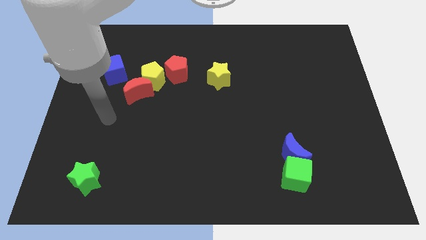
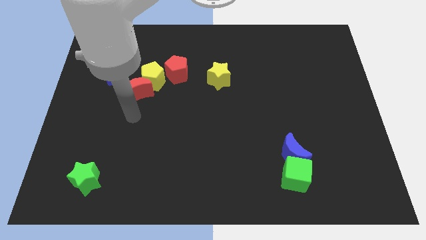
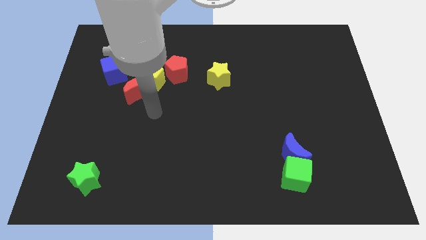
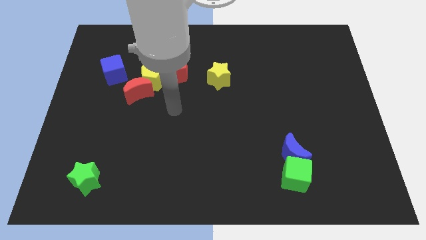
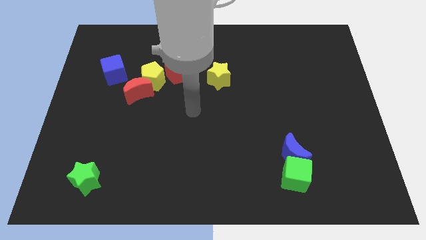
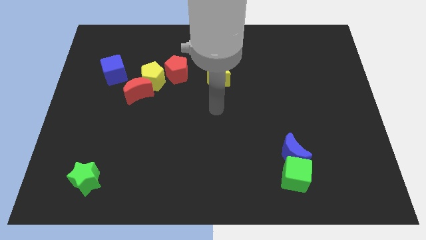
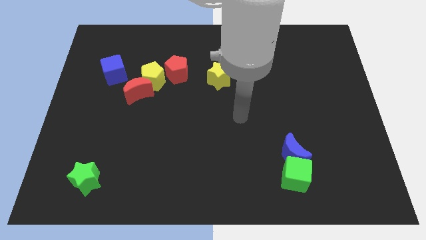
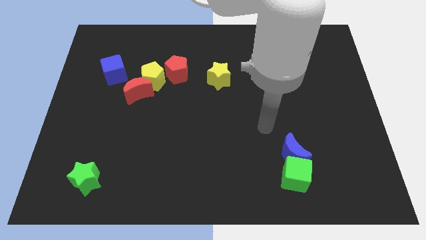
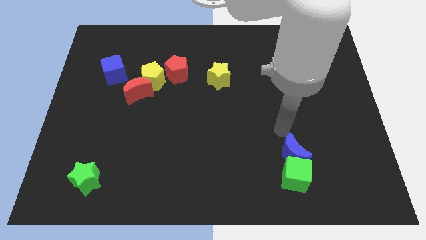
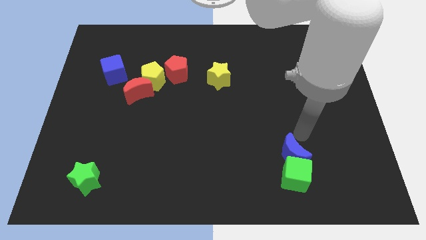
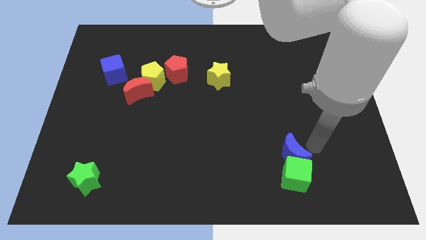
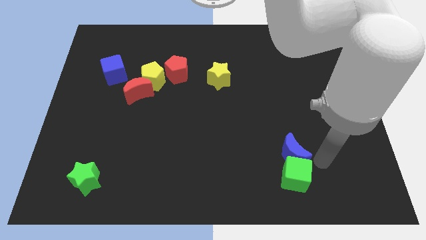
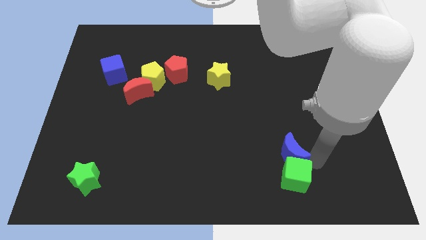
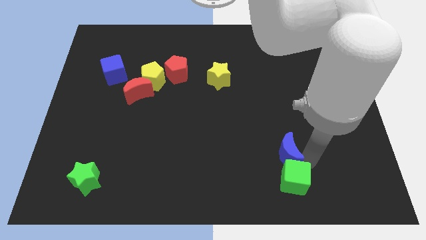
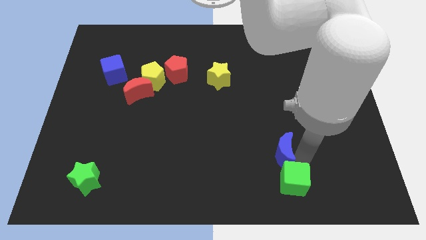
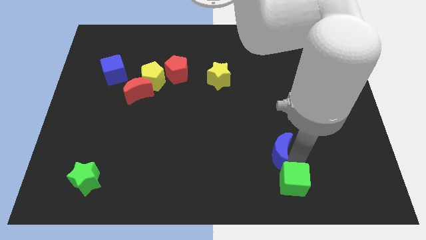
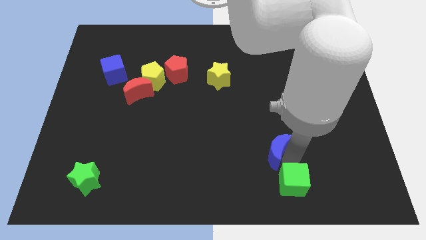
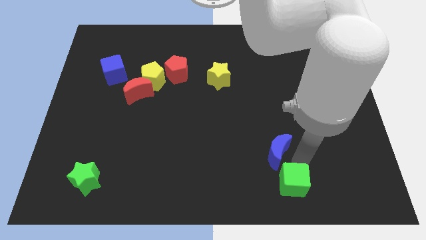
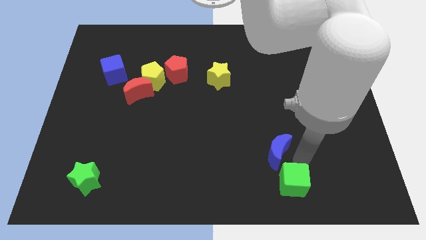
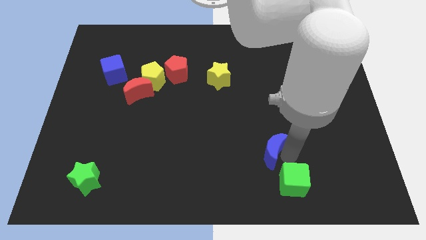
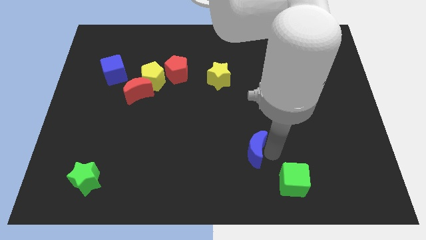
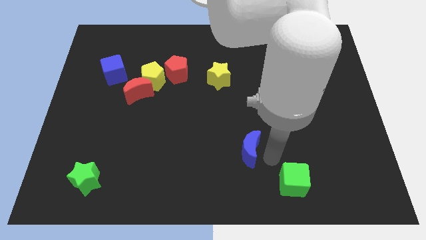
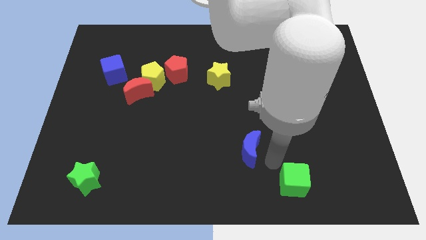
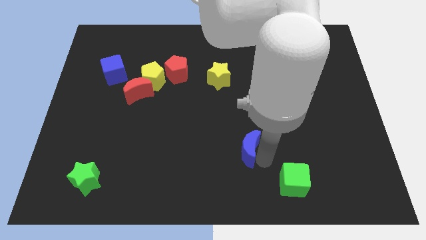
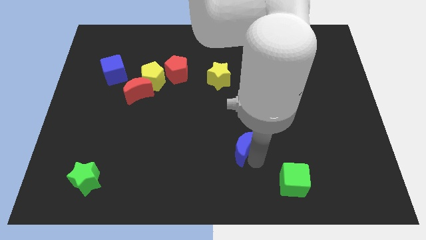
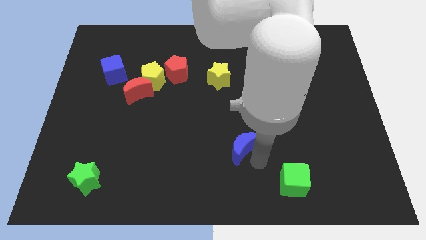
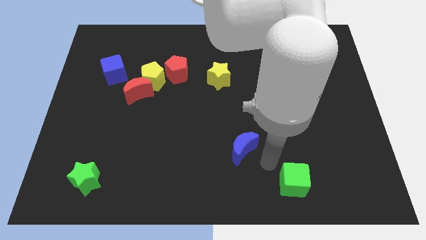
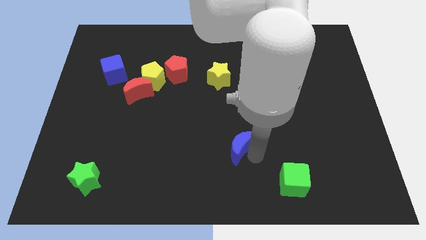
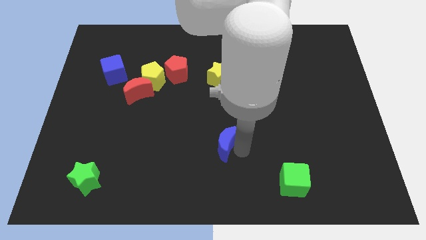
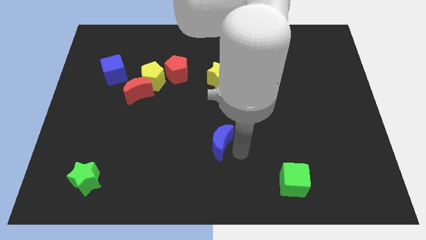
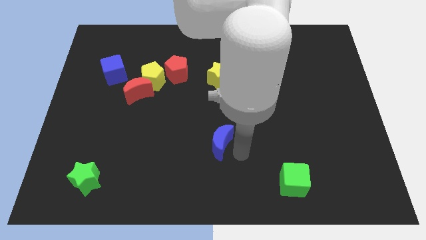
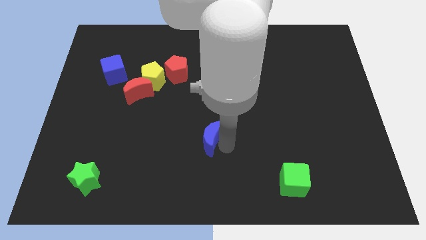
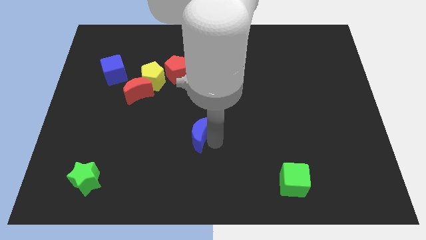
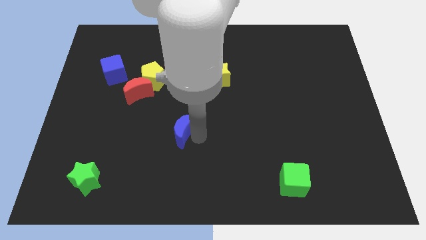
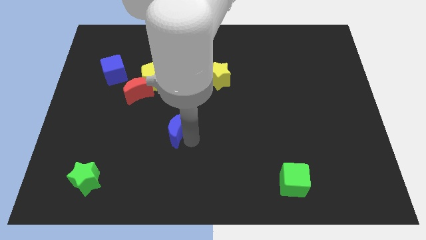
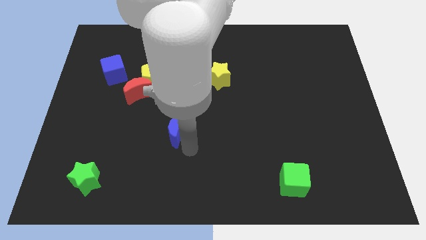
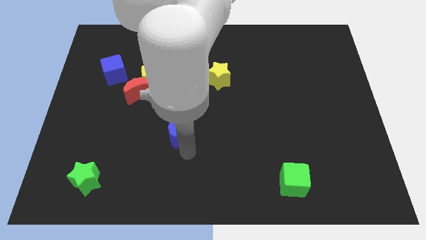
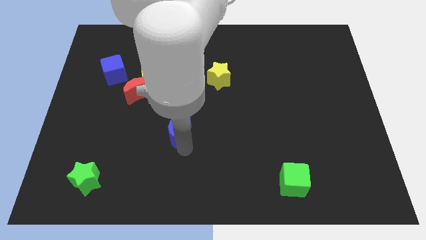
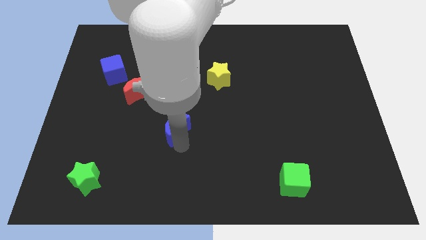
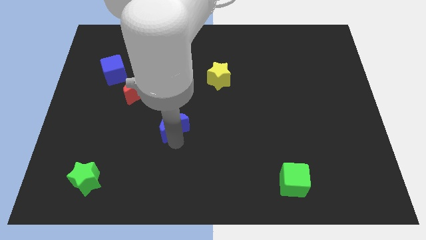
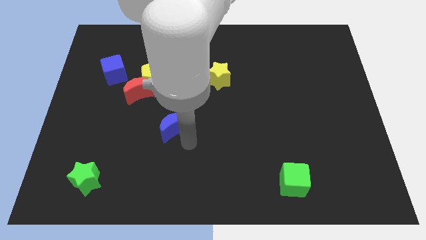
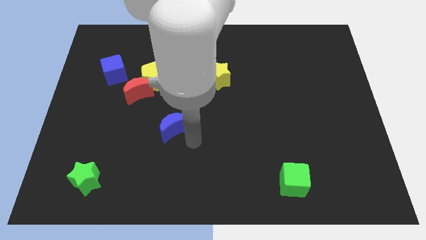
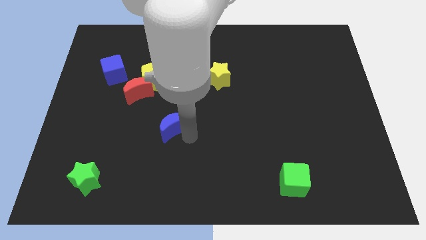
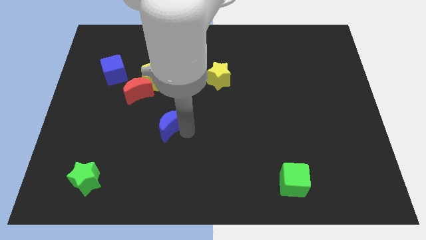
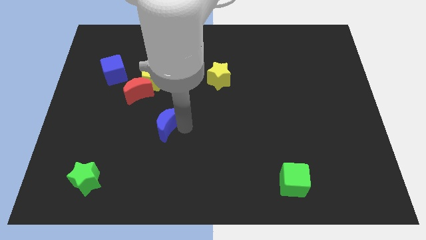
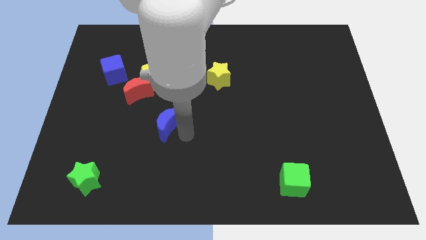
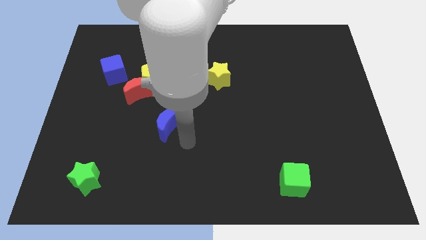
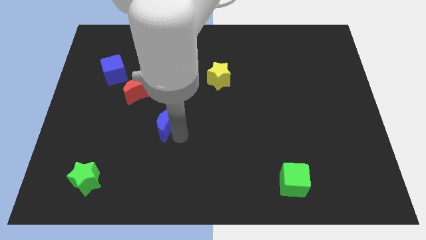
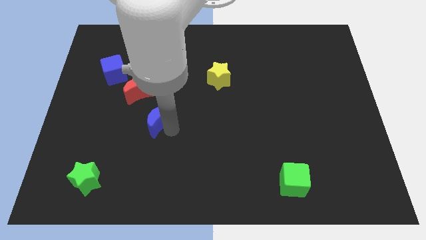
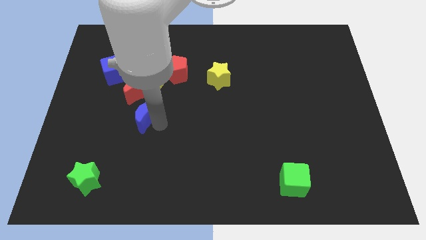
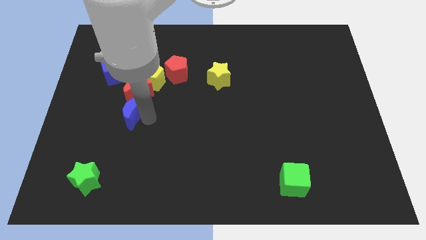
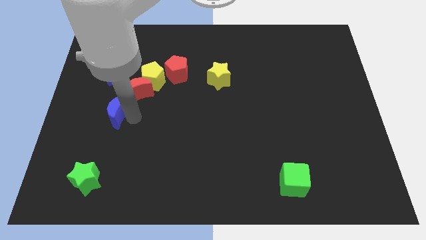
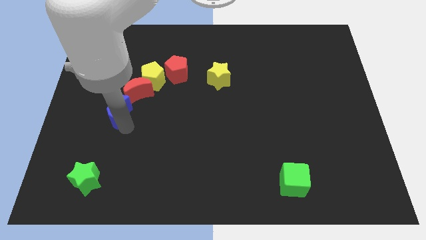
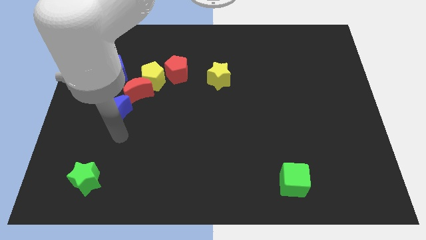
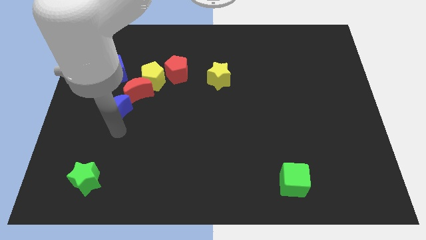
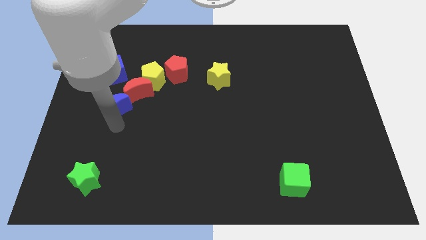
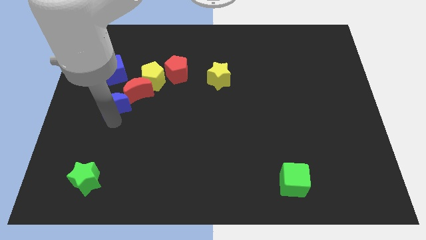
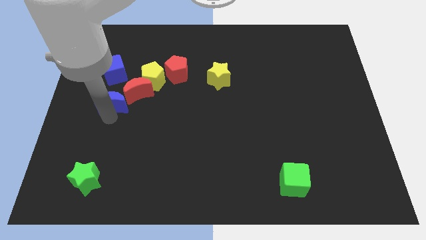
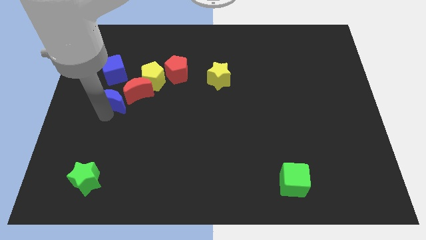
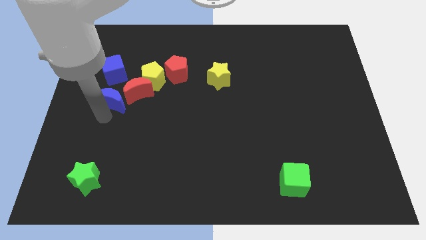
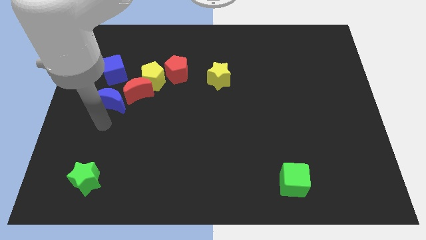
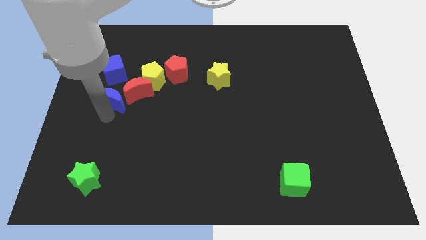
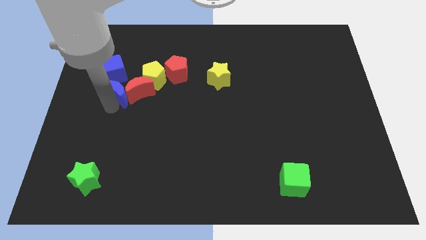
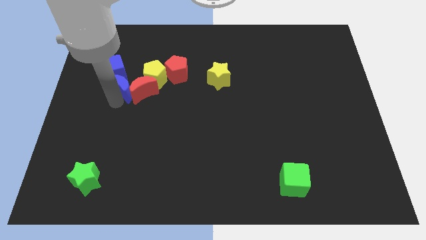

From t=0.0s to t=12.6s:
put the blue moon next to the blue cube
